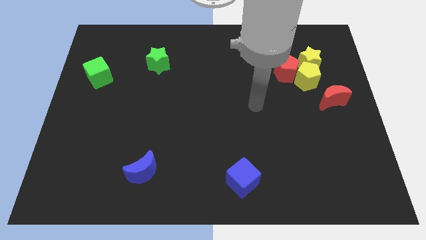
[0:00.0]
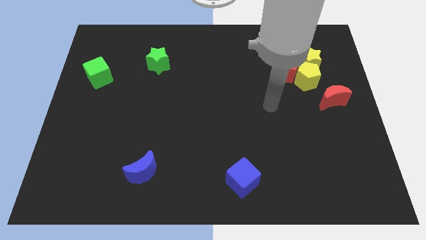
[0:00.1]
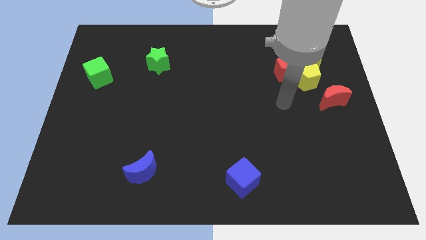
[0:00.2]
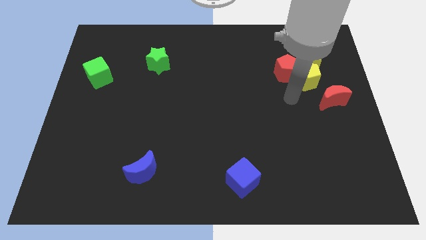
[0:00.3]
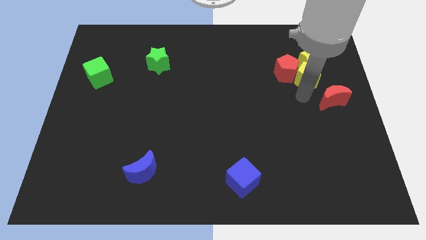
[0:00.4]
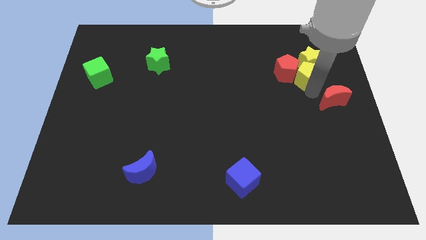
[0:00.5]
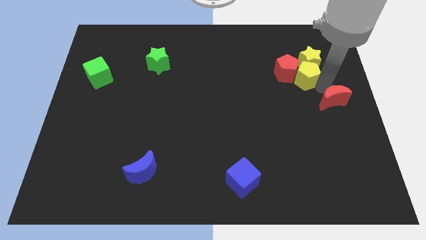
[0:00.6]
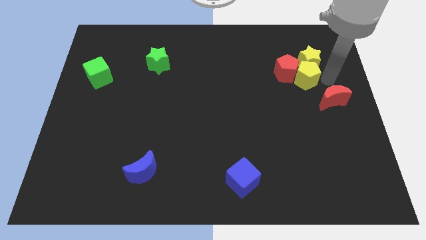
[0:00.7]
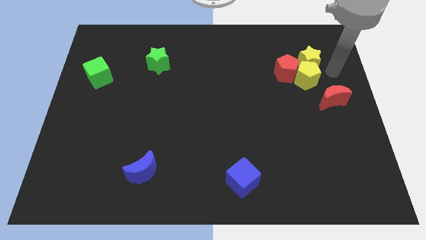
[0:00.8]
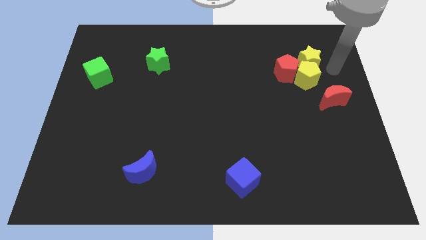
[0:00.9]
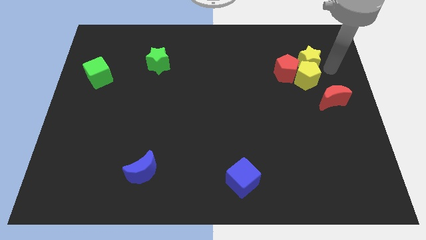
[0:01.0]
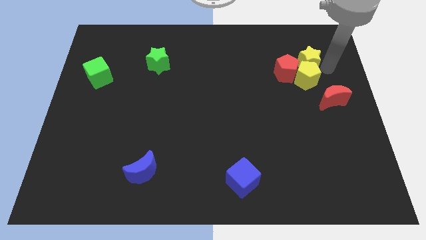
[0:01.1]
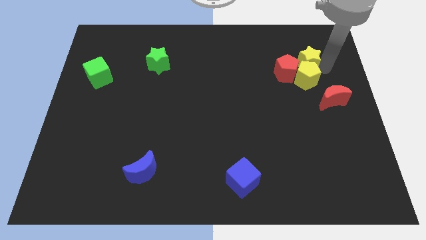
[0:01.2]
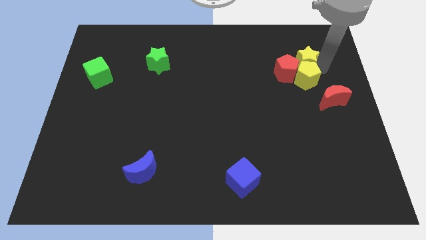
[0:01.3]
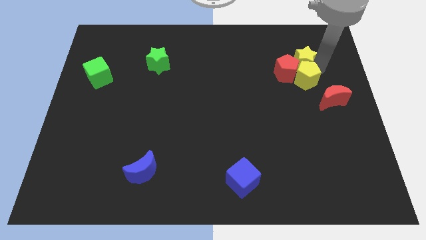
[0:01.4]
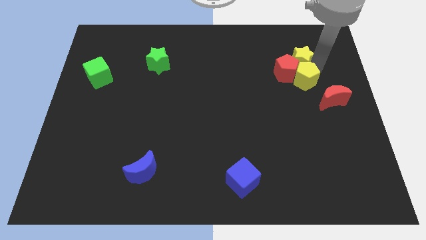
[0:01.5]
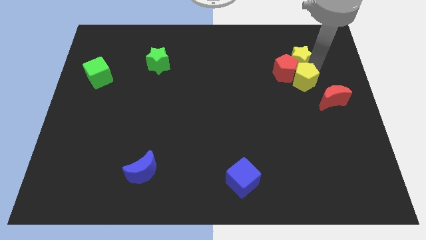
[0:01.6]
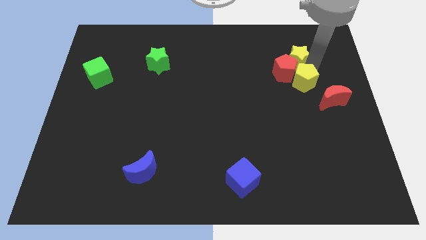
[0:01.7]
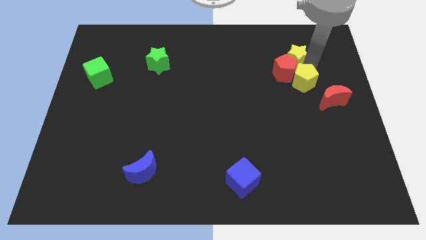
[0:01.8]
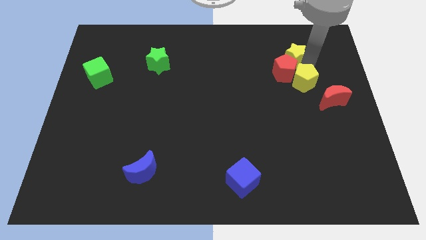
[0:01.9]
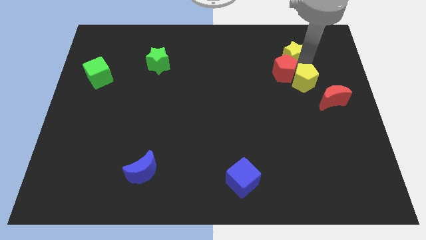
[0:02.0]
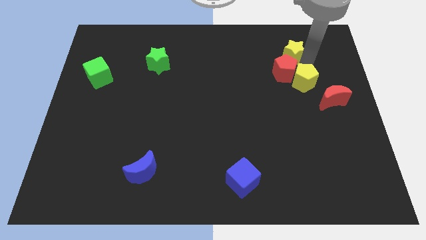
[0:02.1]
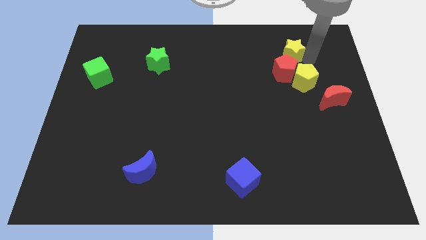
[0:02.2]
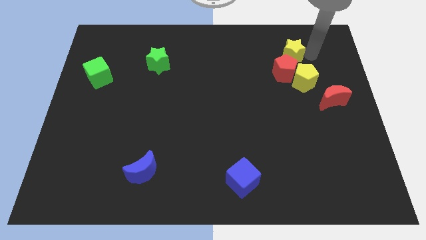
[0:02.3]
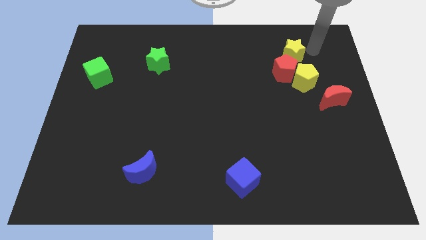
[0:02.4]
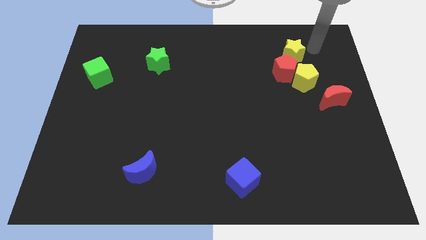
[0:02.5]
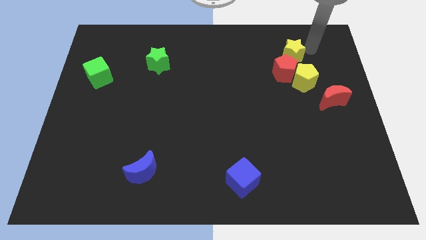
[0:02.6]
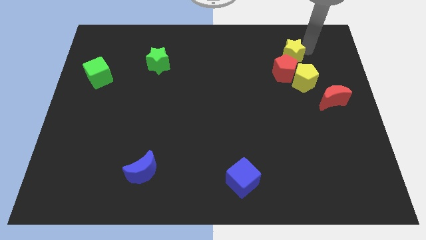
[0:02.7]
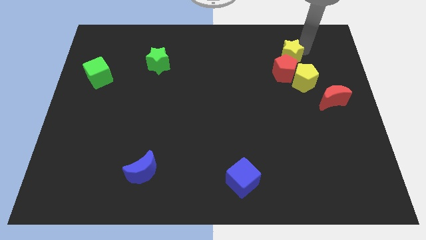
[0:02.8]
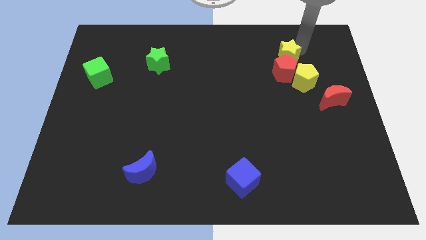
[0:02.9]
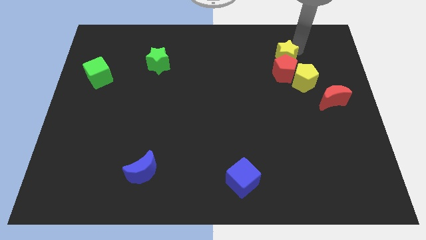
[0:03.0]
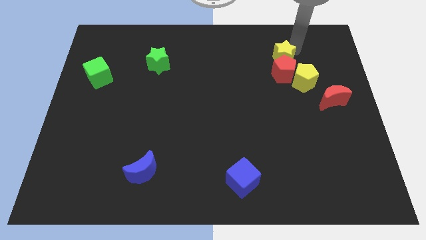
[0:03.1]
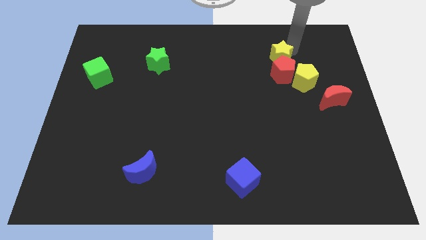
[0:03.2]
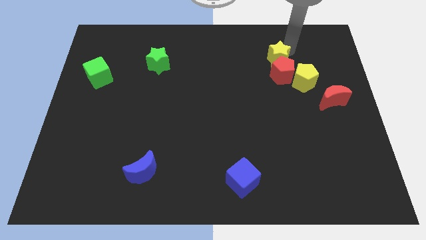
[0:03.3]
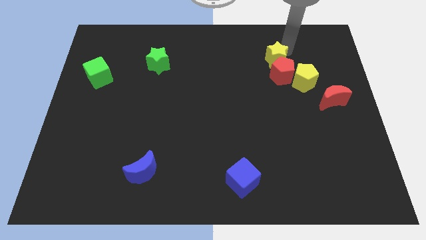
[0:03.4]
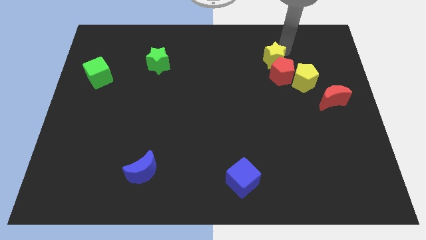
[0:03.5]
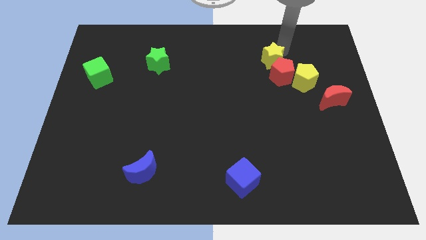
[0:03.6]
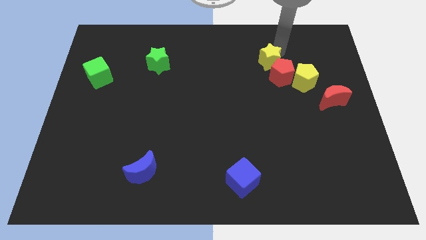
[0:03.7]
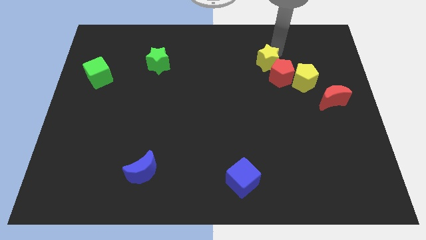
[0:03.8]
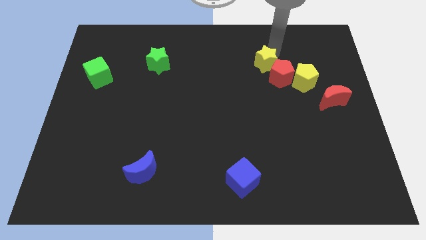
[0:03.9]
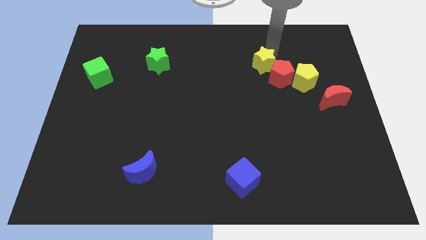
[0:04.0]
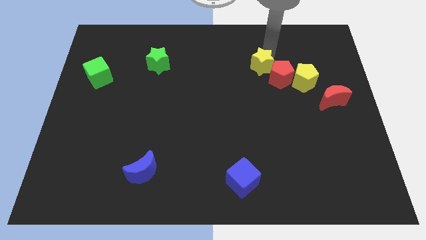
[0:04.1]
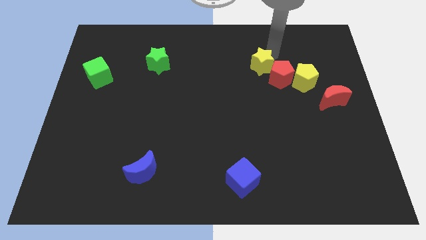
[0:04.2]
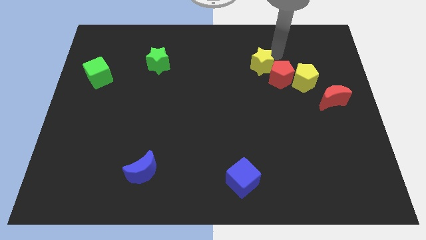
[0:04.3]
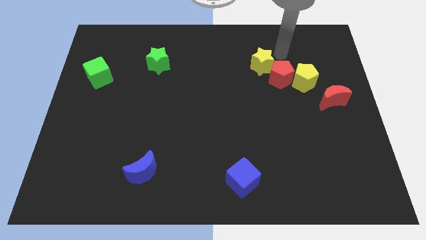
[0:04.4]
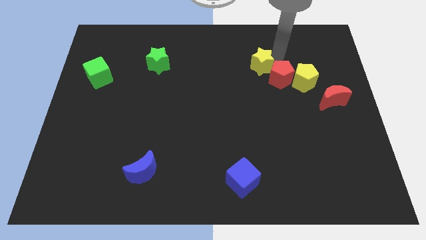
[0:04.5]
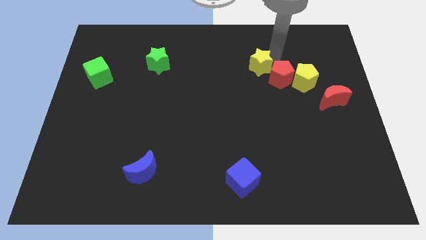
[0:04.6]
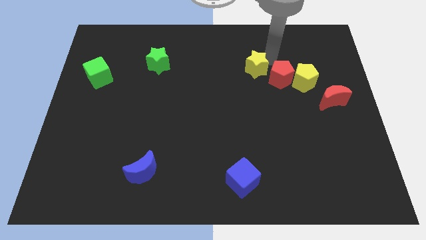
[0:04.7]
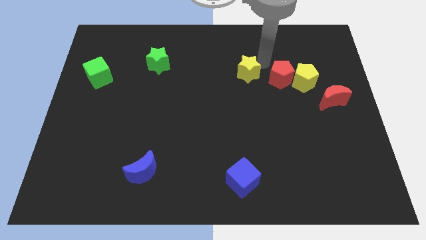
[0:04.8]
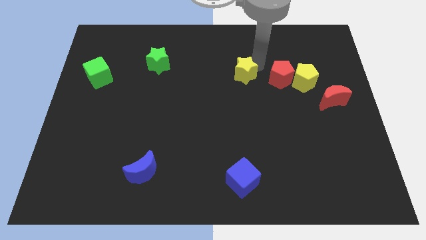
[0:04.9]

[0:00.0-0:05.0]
push the yellow star to the center
